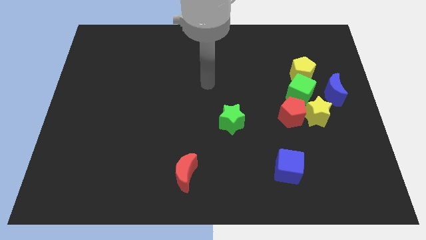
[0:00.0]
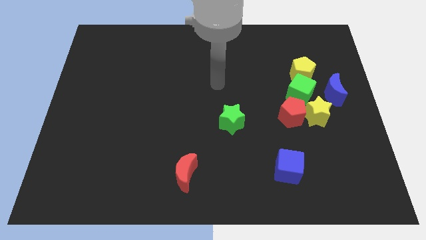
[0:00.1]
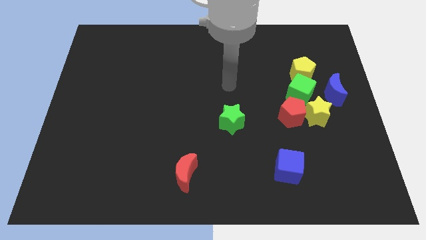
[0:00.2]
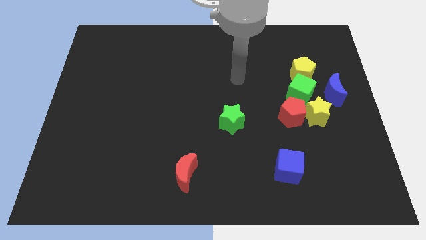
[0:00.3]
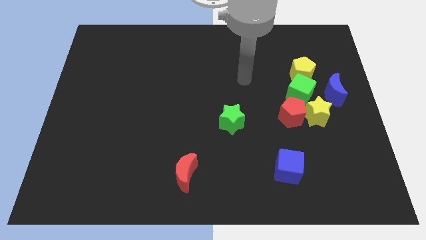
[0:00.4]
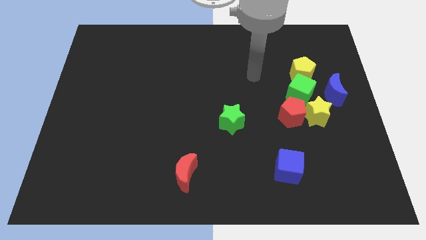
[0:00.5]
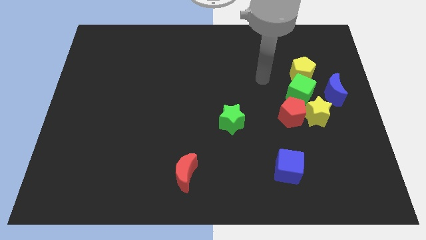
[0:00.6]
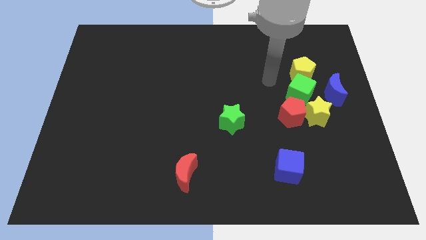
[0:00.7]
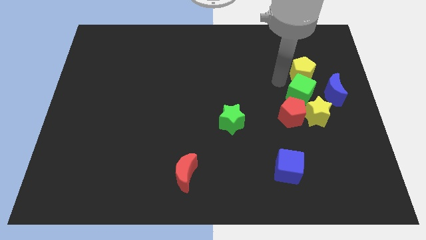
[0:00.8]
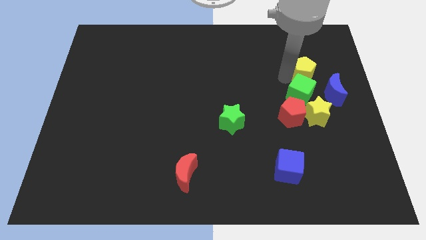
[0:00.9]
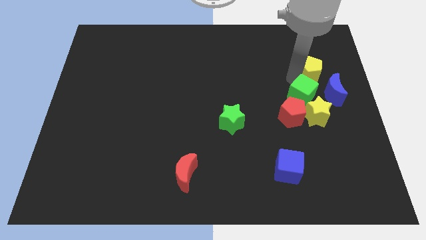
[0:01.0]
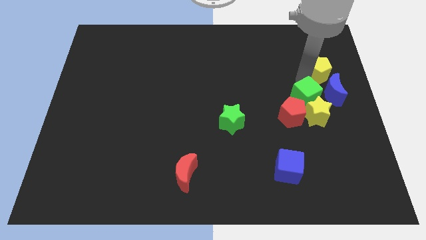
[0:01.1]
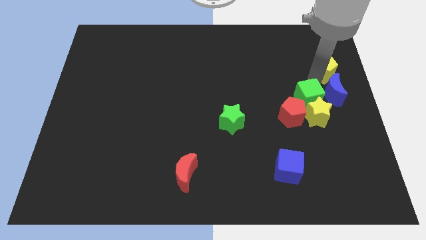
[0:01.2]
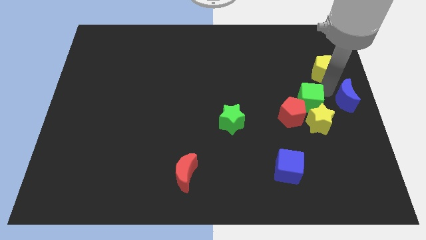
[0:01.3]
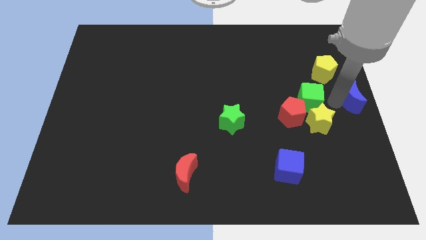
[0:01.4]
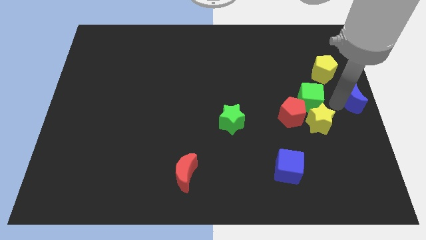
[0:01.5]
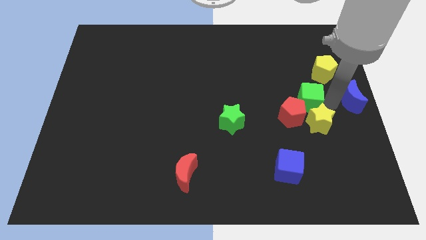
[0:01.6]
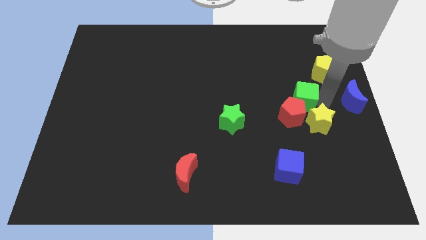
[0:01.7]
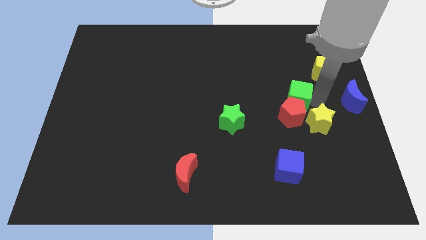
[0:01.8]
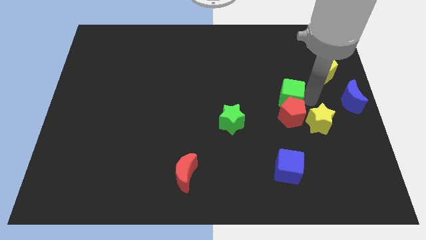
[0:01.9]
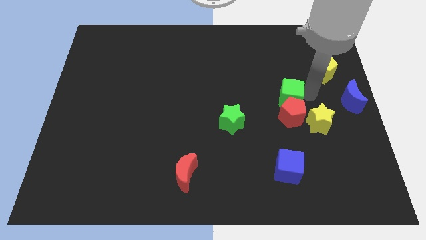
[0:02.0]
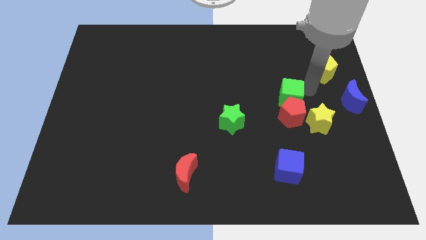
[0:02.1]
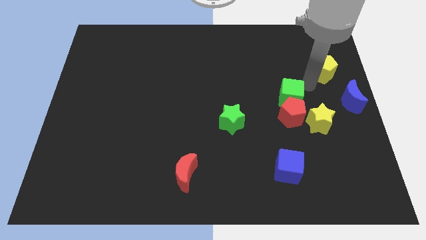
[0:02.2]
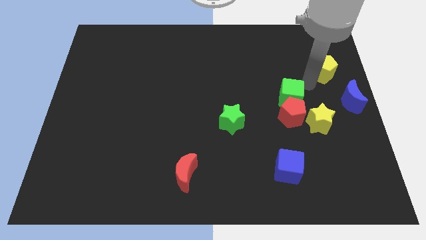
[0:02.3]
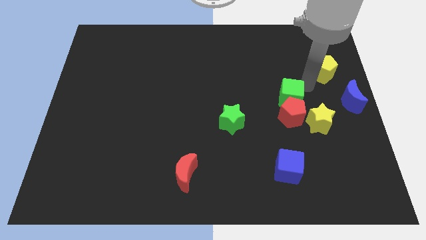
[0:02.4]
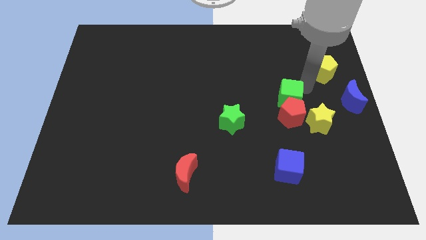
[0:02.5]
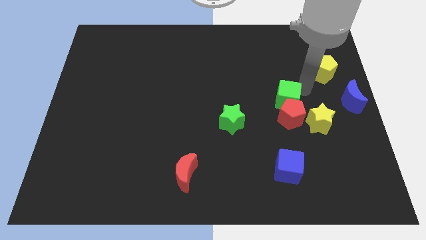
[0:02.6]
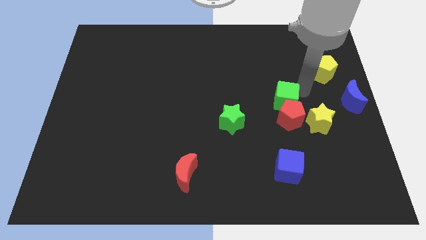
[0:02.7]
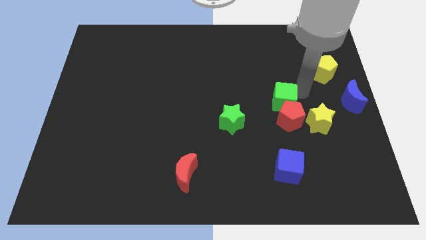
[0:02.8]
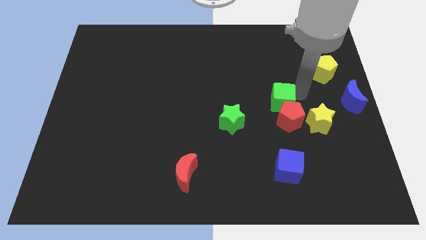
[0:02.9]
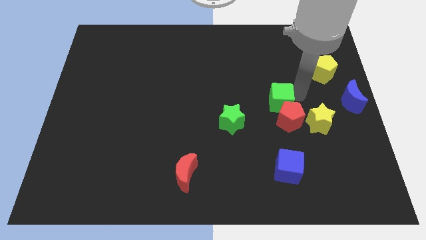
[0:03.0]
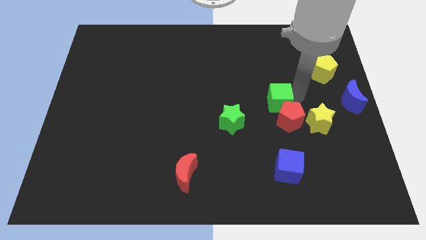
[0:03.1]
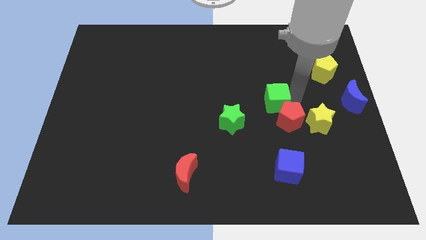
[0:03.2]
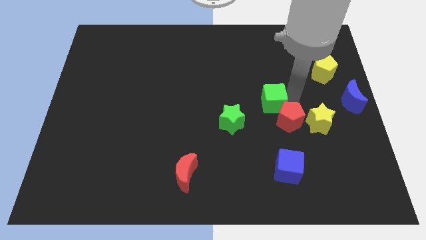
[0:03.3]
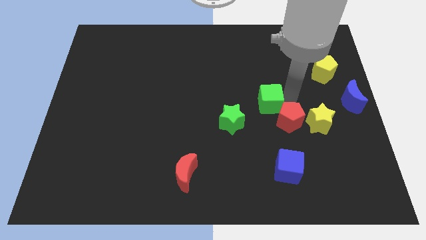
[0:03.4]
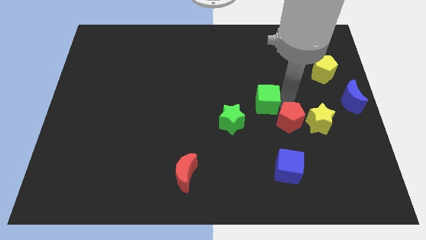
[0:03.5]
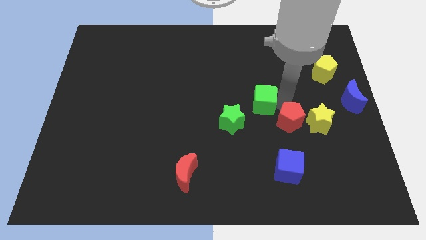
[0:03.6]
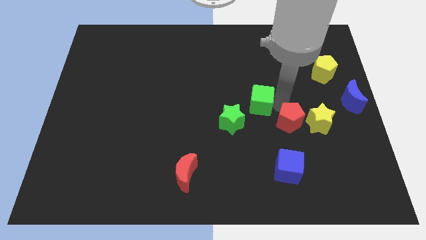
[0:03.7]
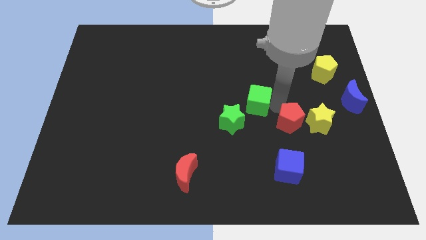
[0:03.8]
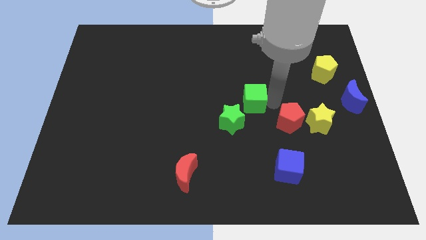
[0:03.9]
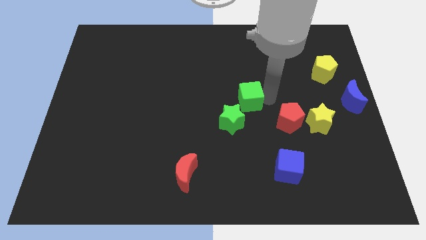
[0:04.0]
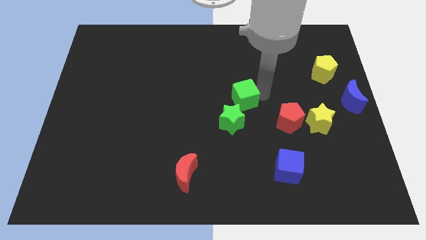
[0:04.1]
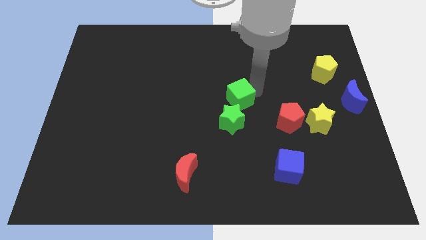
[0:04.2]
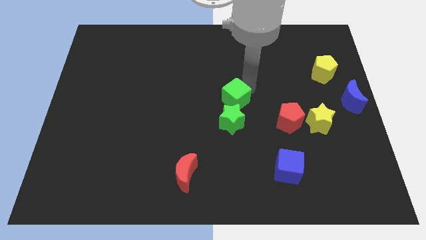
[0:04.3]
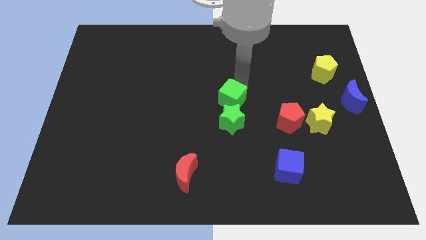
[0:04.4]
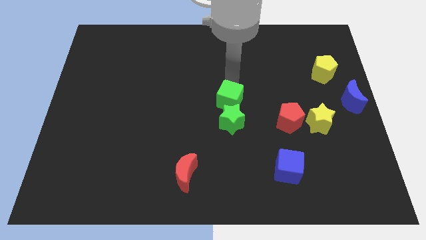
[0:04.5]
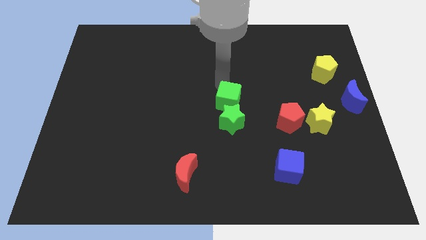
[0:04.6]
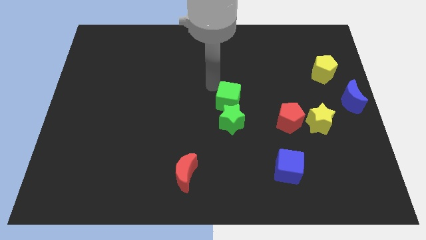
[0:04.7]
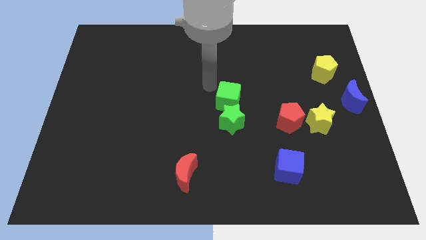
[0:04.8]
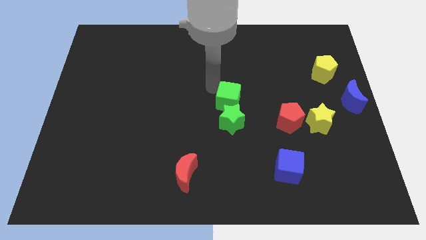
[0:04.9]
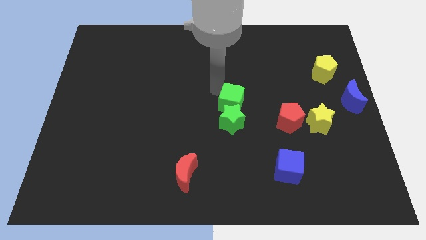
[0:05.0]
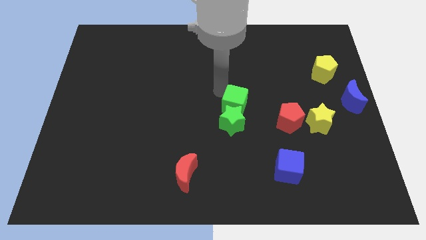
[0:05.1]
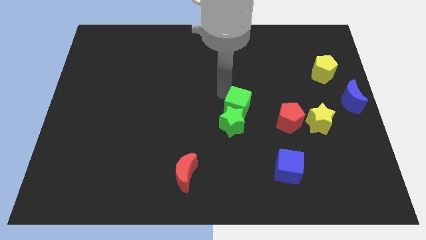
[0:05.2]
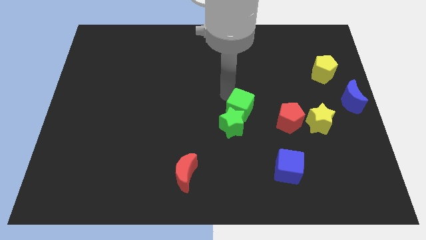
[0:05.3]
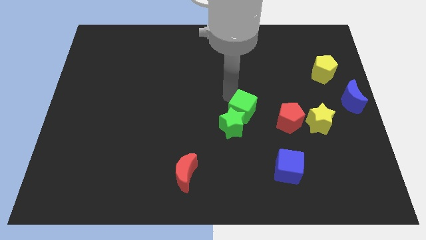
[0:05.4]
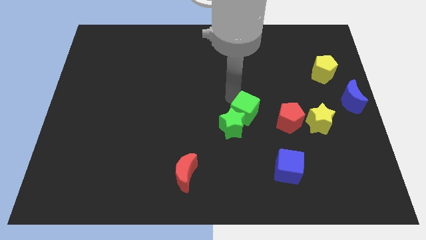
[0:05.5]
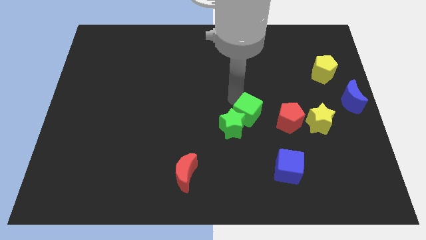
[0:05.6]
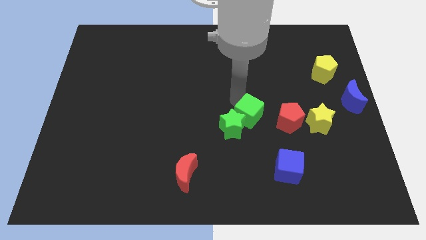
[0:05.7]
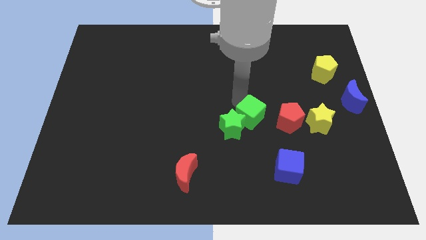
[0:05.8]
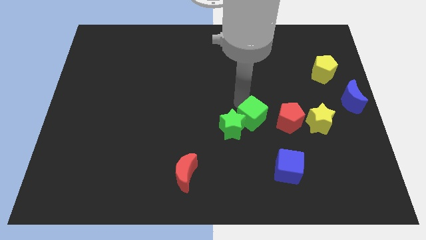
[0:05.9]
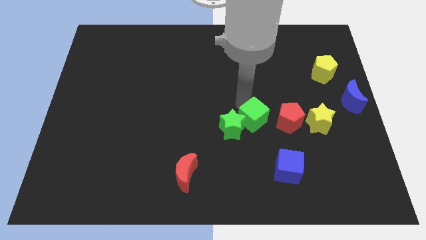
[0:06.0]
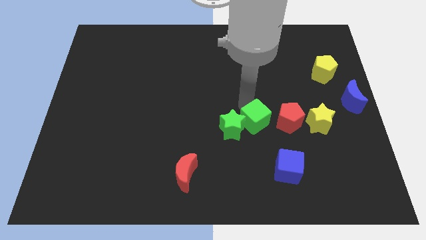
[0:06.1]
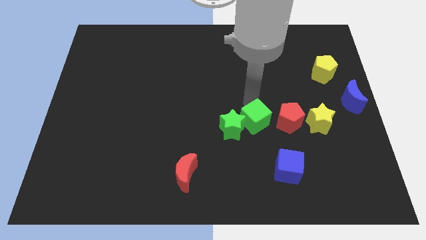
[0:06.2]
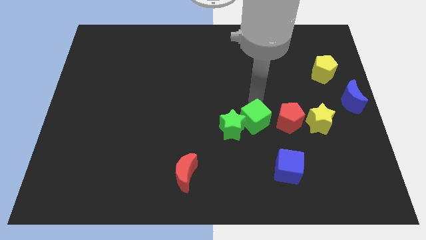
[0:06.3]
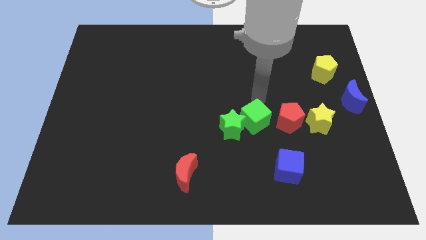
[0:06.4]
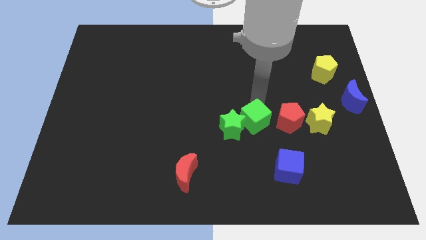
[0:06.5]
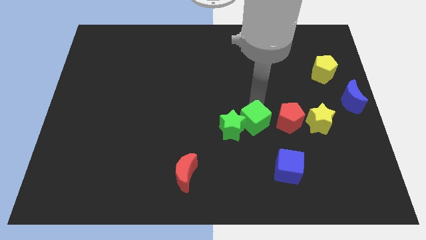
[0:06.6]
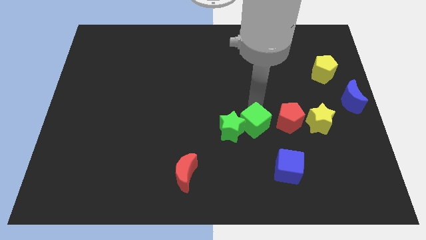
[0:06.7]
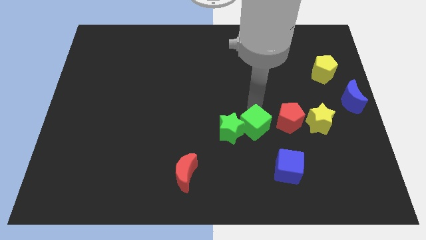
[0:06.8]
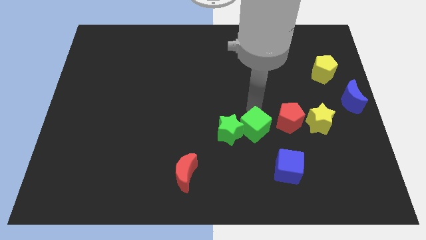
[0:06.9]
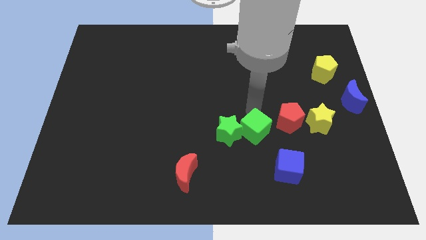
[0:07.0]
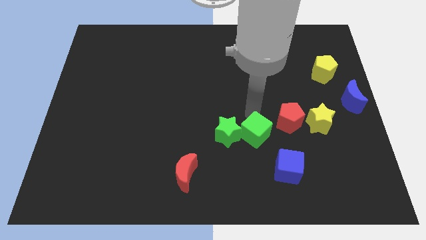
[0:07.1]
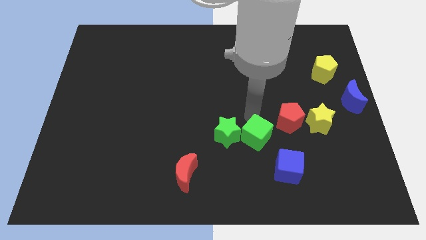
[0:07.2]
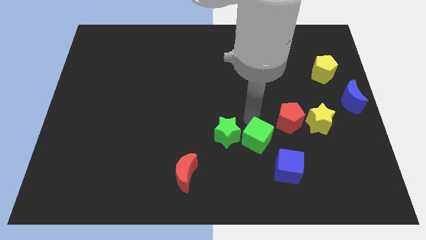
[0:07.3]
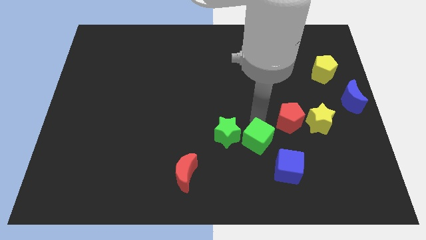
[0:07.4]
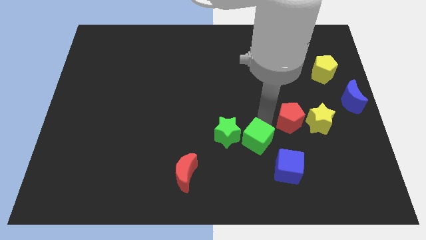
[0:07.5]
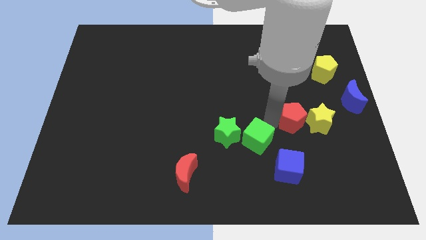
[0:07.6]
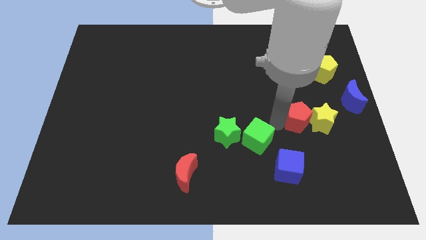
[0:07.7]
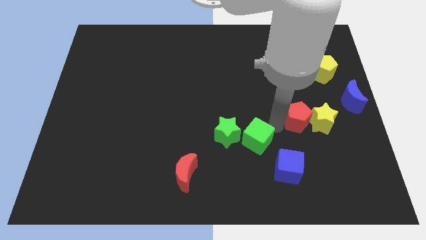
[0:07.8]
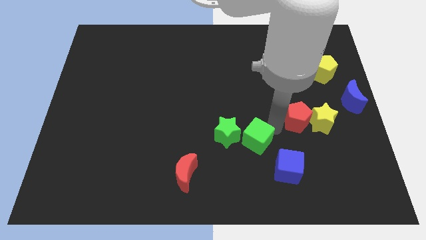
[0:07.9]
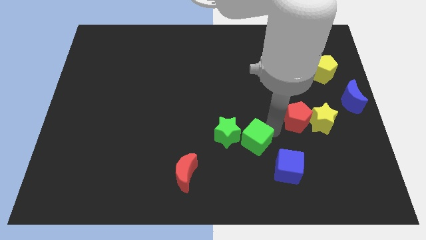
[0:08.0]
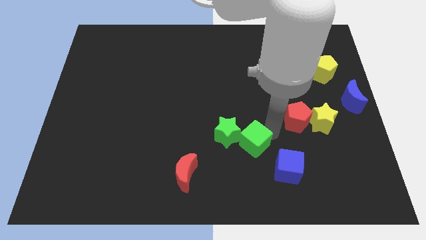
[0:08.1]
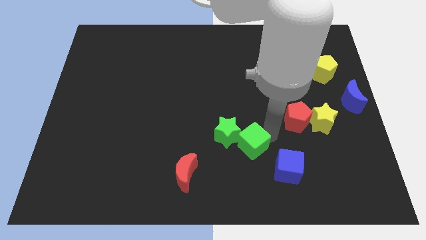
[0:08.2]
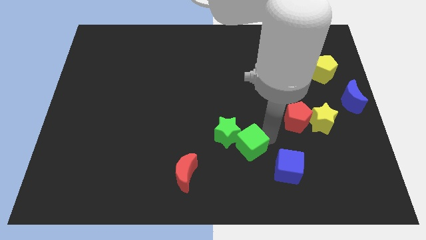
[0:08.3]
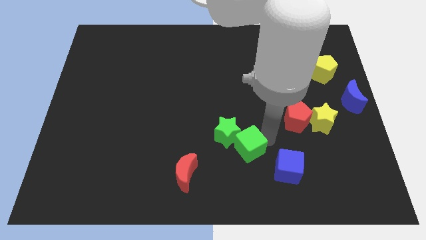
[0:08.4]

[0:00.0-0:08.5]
slide the green cube down and to the left
